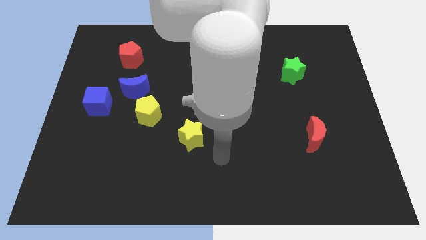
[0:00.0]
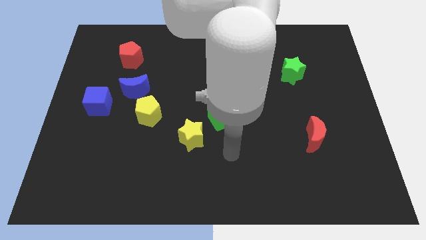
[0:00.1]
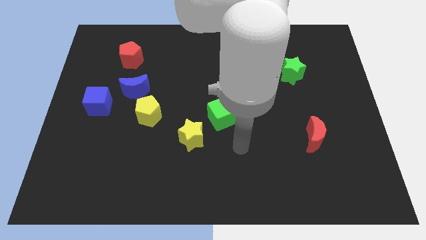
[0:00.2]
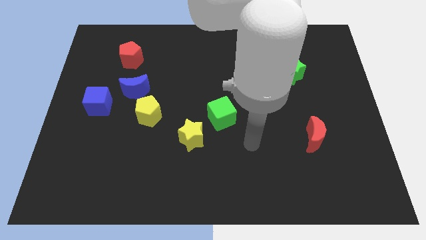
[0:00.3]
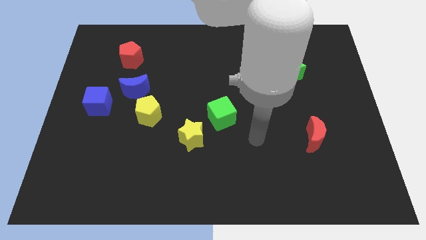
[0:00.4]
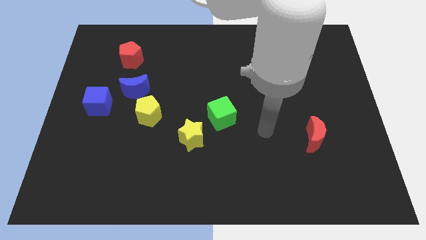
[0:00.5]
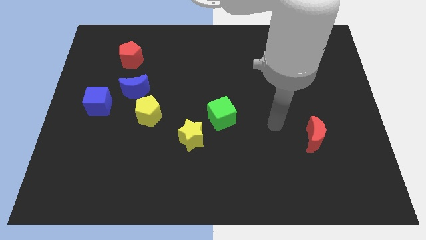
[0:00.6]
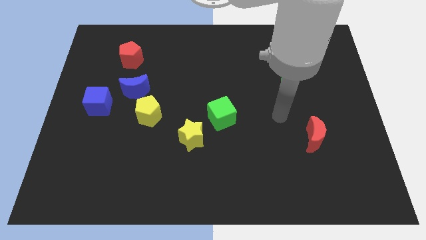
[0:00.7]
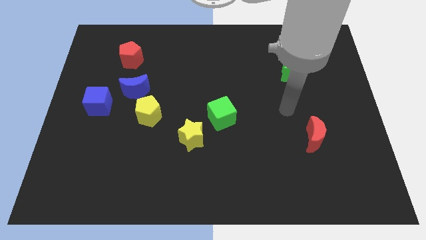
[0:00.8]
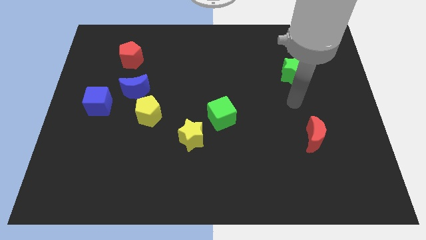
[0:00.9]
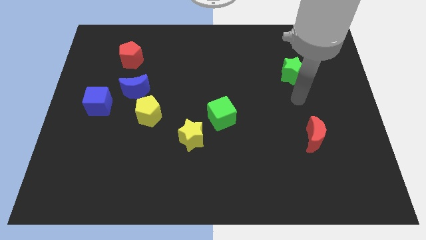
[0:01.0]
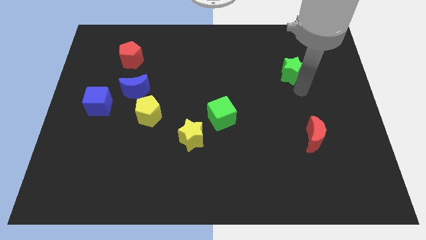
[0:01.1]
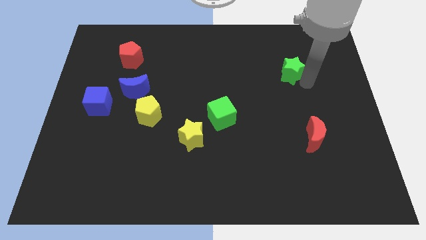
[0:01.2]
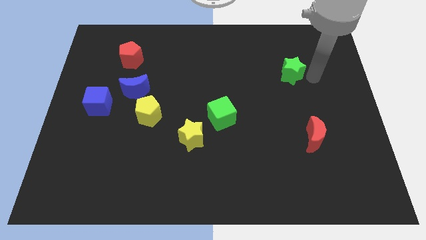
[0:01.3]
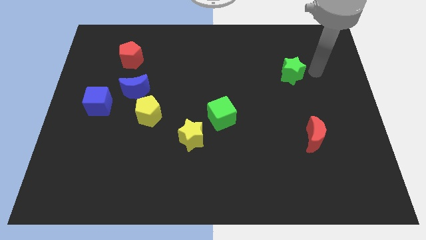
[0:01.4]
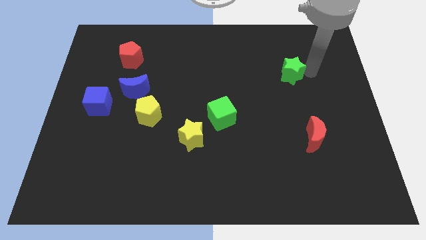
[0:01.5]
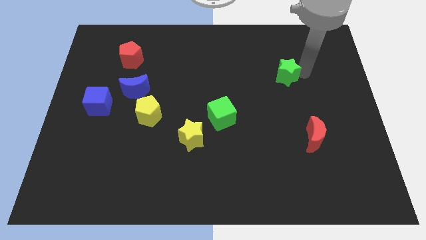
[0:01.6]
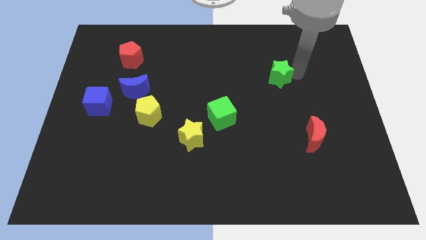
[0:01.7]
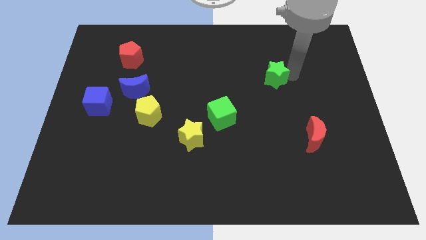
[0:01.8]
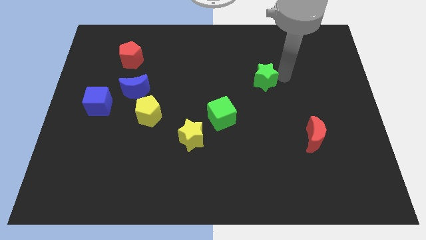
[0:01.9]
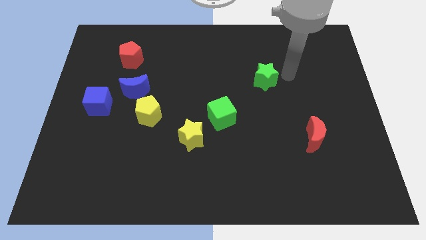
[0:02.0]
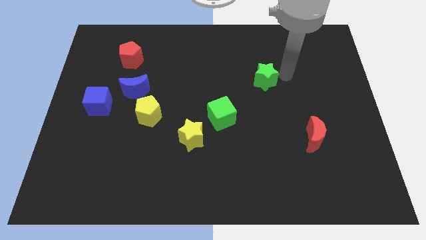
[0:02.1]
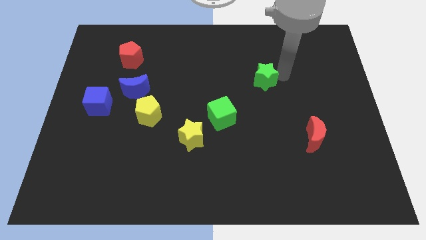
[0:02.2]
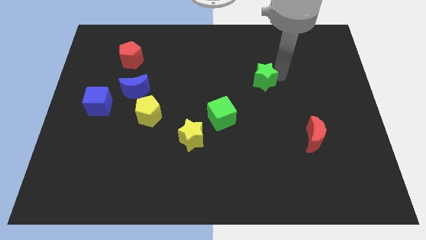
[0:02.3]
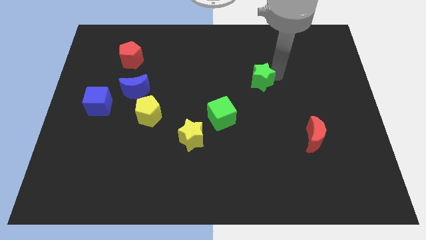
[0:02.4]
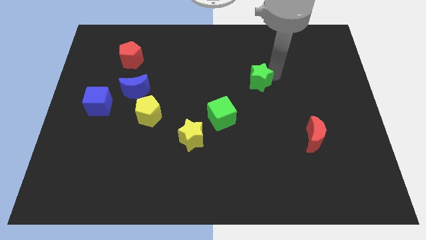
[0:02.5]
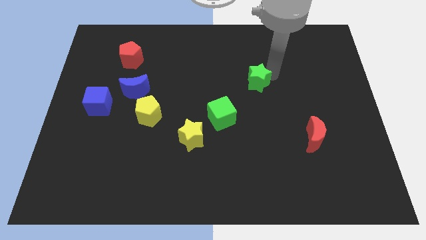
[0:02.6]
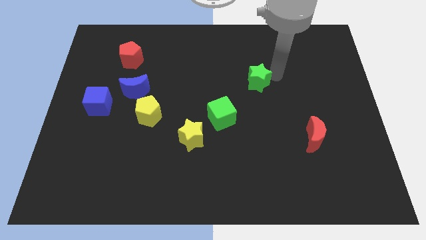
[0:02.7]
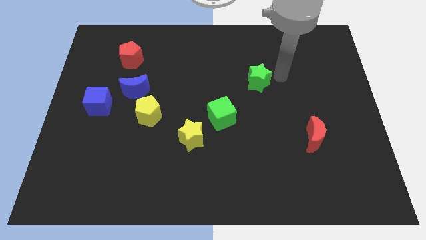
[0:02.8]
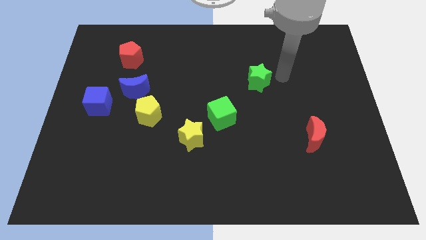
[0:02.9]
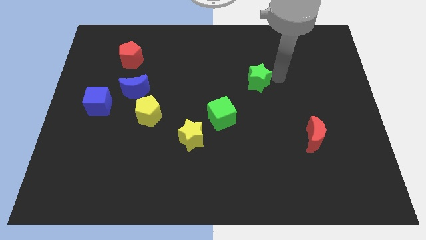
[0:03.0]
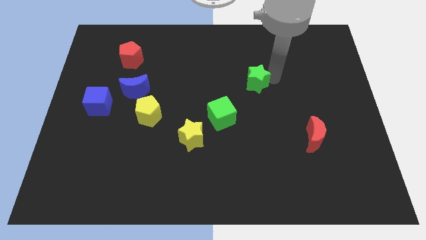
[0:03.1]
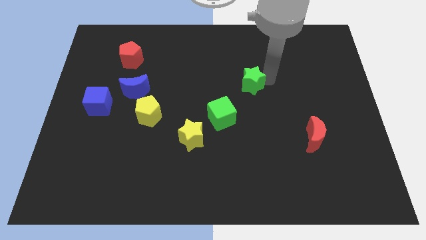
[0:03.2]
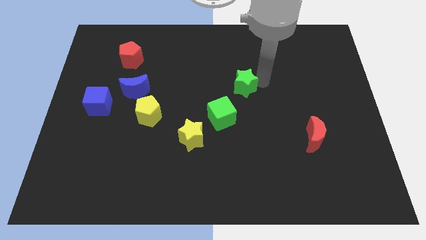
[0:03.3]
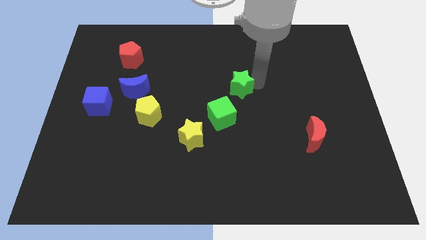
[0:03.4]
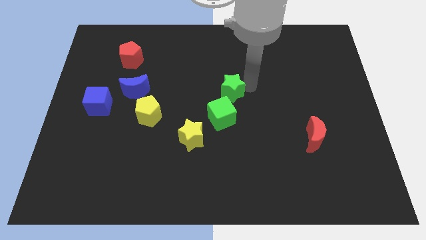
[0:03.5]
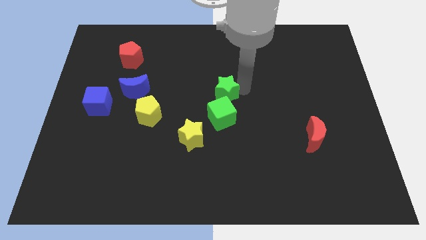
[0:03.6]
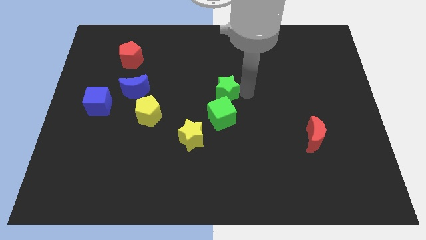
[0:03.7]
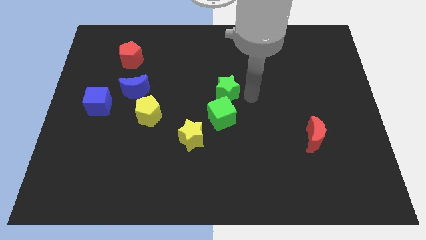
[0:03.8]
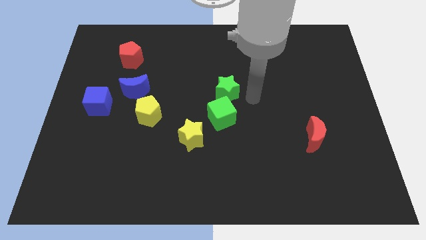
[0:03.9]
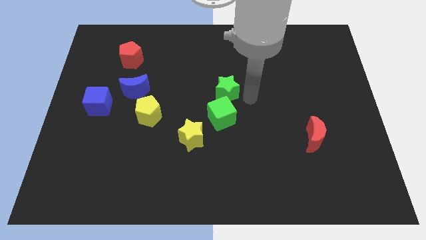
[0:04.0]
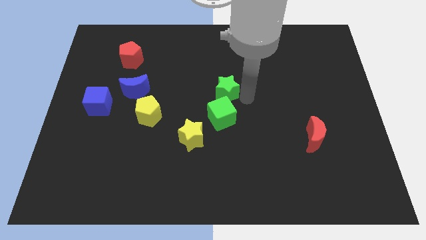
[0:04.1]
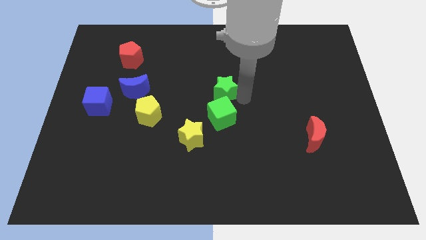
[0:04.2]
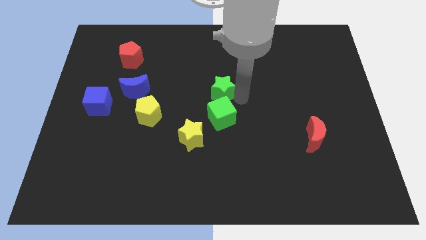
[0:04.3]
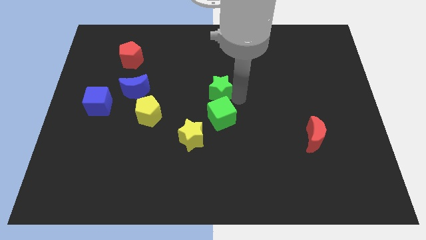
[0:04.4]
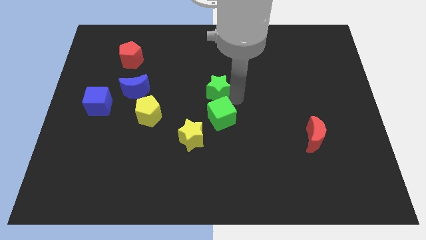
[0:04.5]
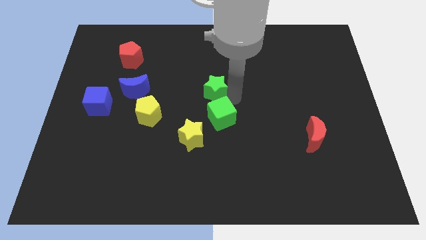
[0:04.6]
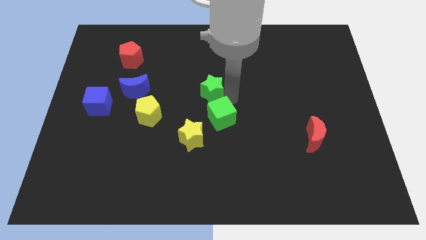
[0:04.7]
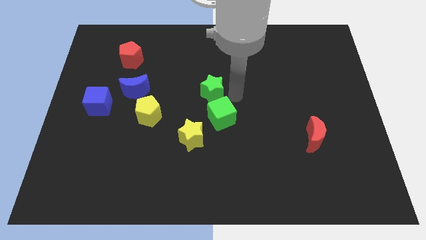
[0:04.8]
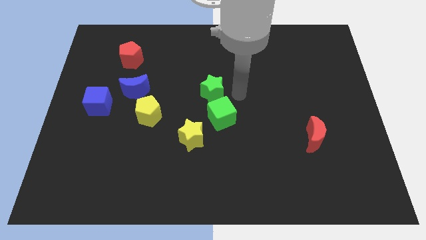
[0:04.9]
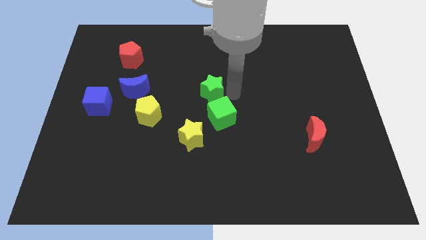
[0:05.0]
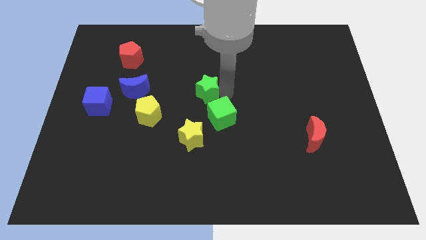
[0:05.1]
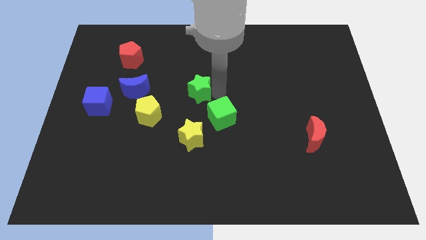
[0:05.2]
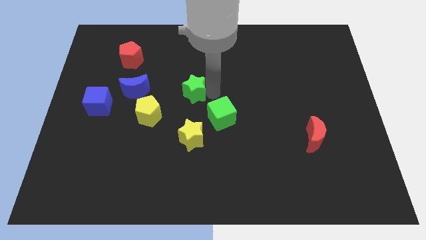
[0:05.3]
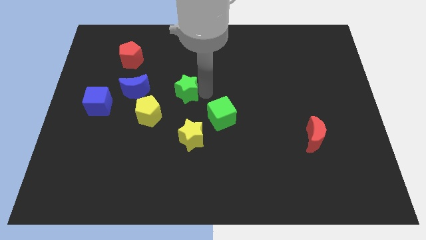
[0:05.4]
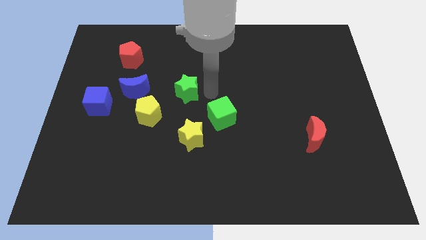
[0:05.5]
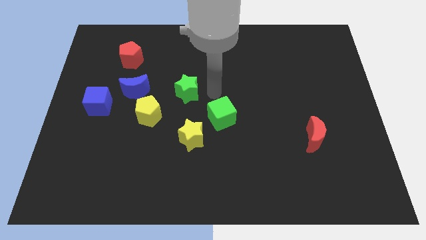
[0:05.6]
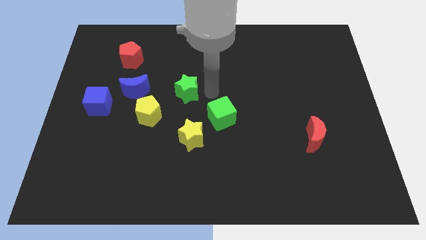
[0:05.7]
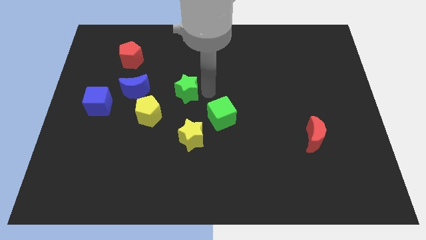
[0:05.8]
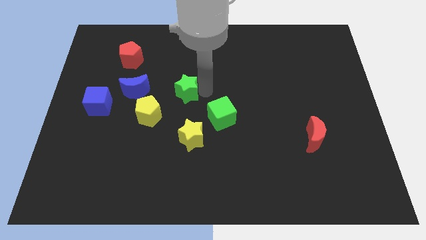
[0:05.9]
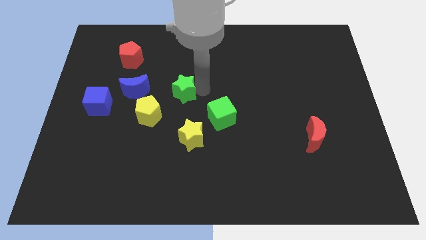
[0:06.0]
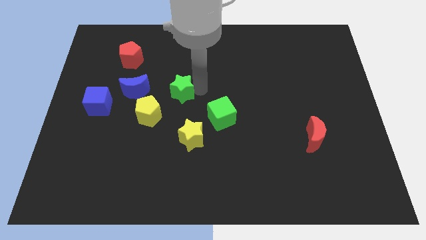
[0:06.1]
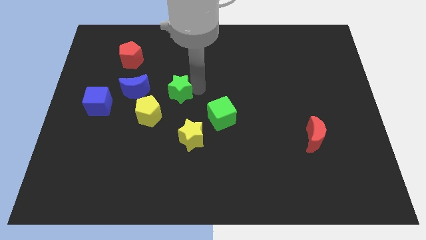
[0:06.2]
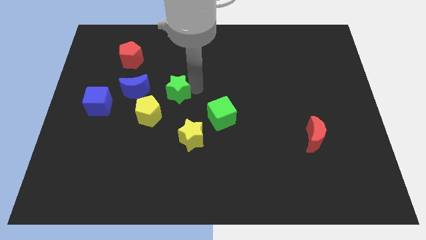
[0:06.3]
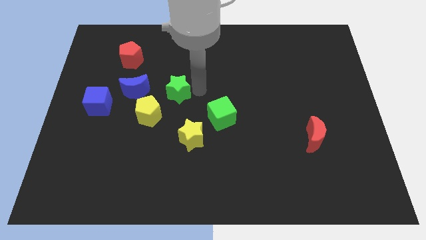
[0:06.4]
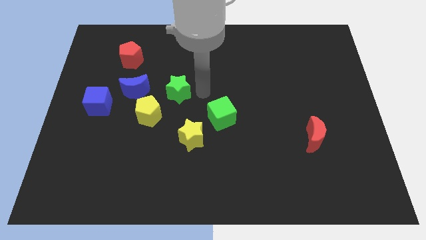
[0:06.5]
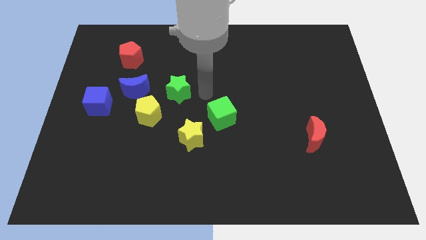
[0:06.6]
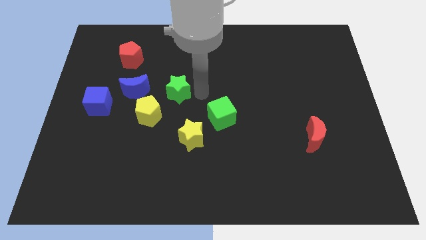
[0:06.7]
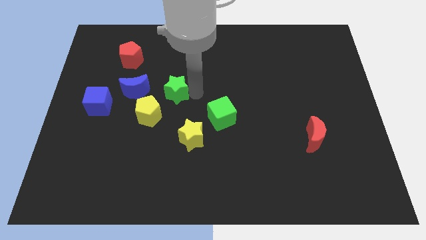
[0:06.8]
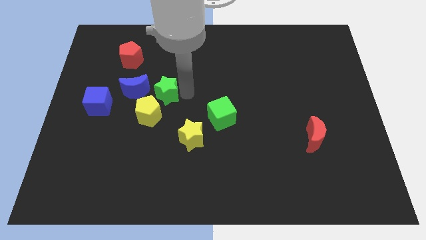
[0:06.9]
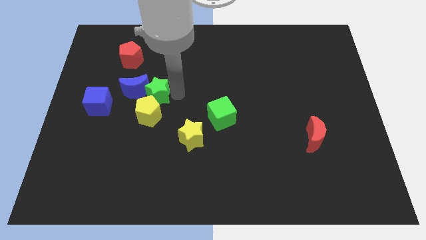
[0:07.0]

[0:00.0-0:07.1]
slide the green star towards the blue moon

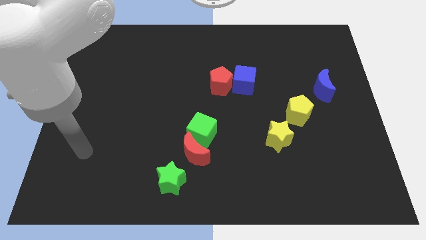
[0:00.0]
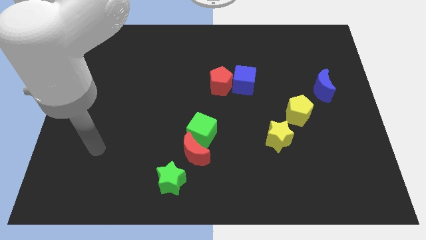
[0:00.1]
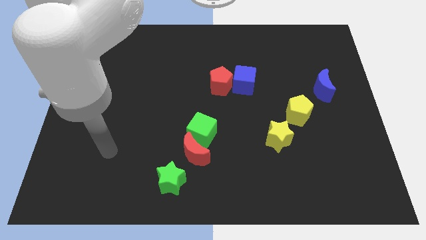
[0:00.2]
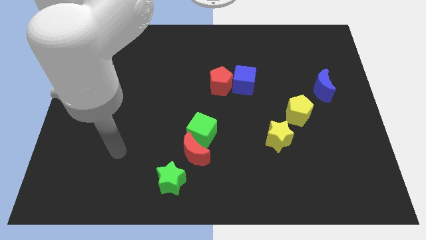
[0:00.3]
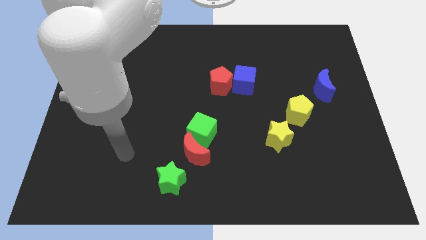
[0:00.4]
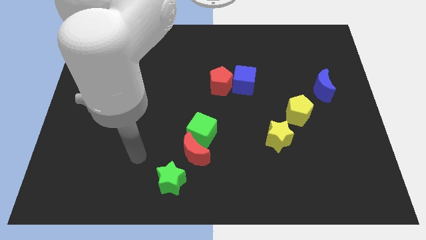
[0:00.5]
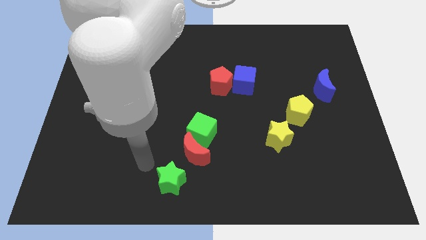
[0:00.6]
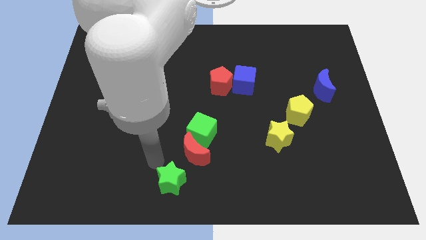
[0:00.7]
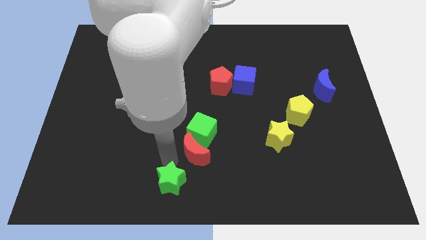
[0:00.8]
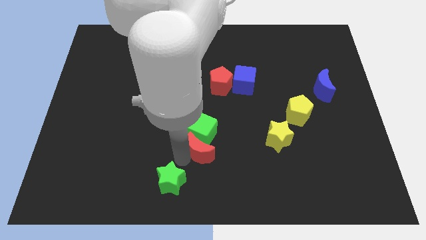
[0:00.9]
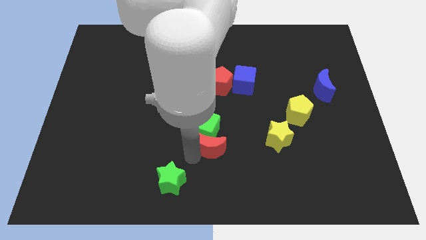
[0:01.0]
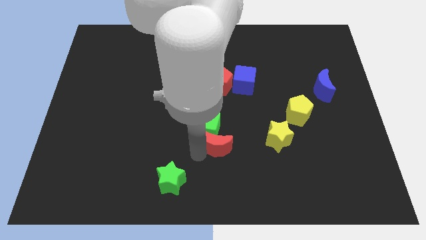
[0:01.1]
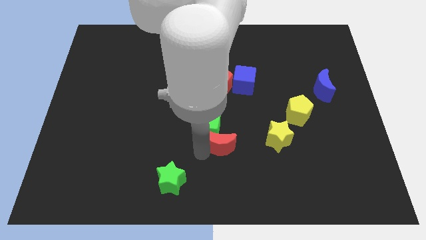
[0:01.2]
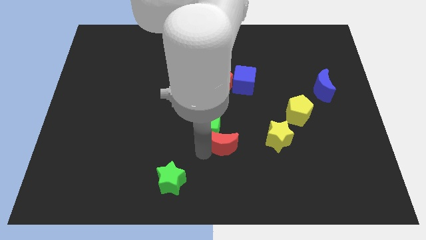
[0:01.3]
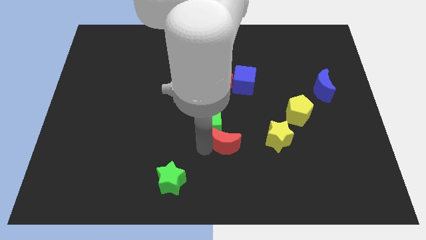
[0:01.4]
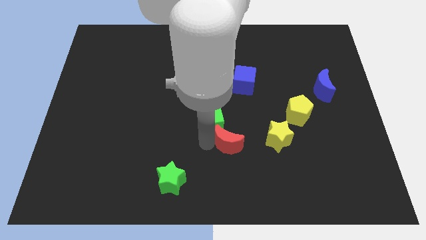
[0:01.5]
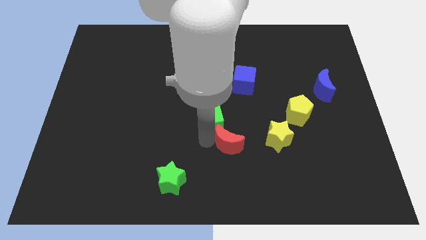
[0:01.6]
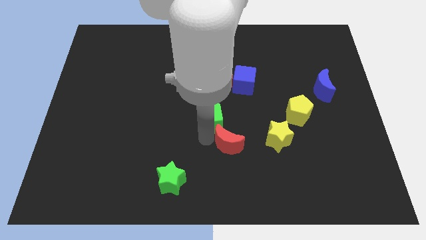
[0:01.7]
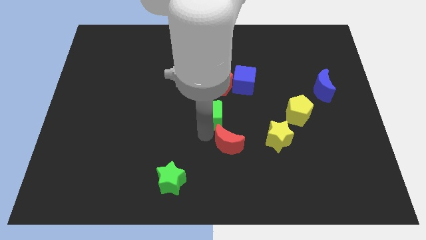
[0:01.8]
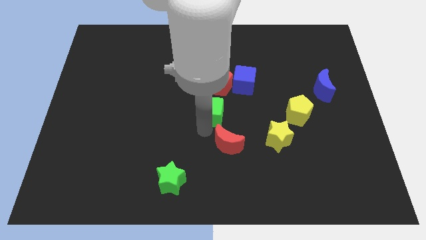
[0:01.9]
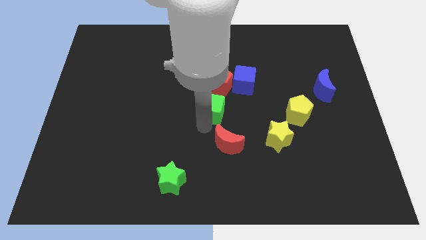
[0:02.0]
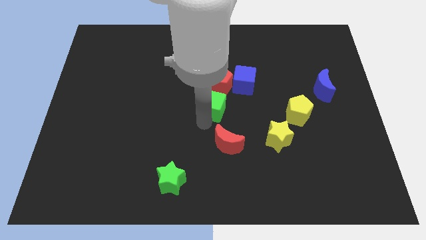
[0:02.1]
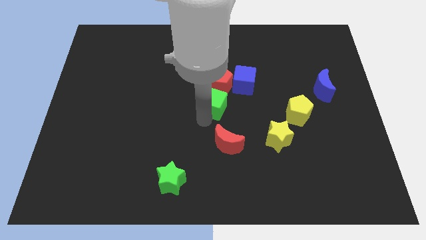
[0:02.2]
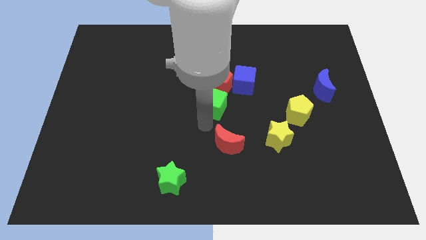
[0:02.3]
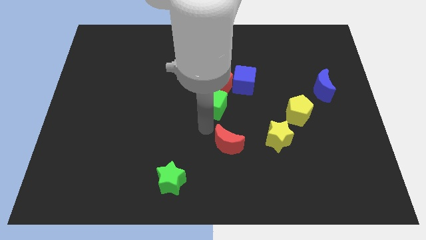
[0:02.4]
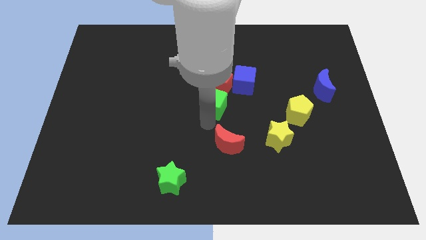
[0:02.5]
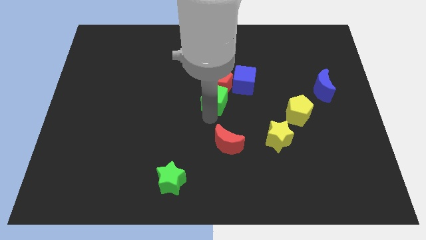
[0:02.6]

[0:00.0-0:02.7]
slide the green cube towards the red pentagon
